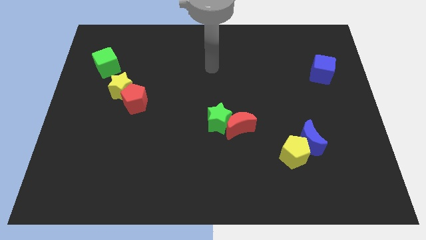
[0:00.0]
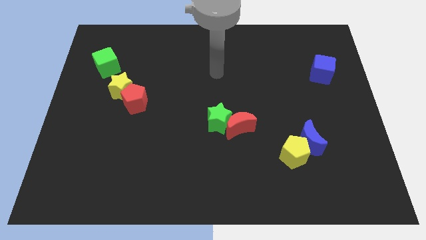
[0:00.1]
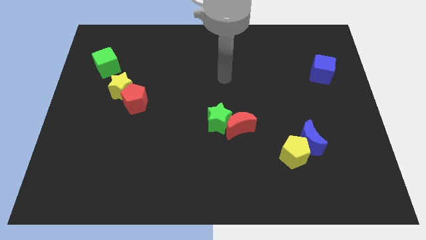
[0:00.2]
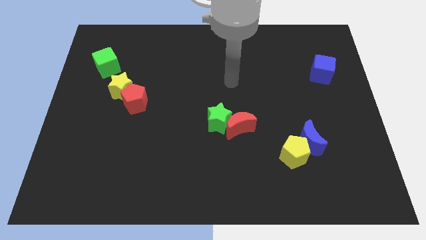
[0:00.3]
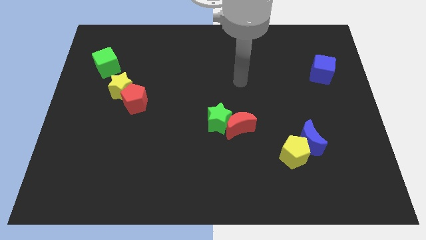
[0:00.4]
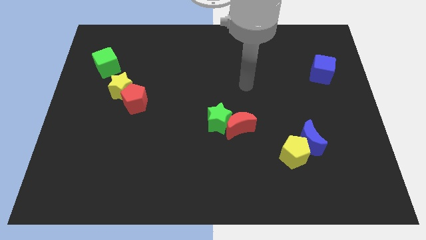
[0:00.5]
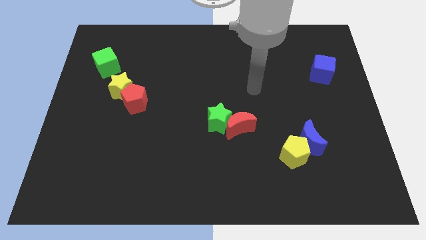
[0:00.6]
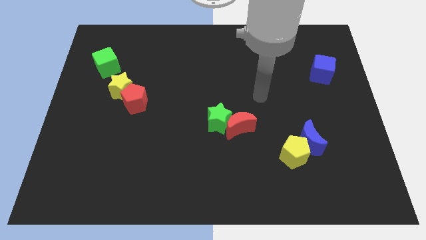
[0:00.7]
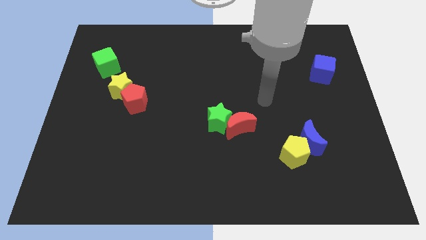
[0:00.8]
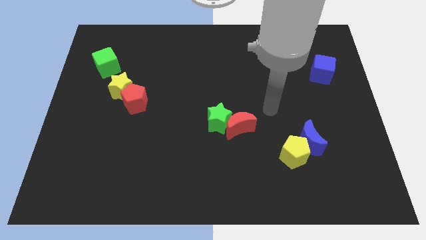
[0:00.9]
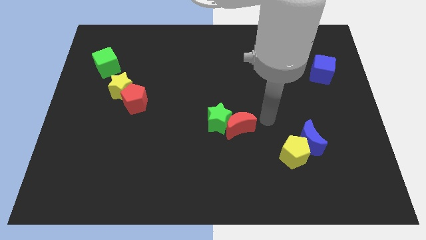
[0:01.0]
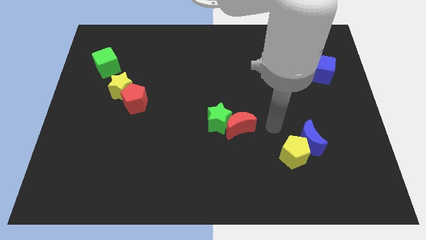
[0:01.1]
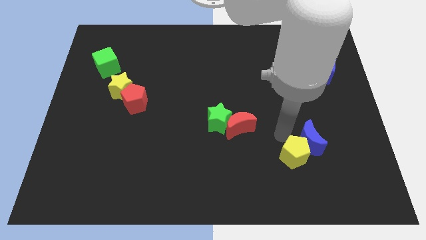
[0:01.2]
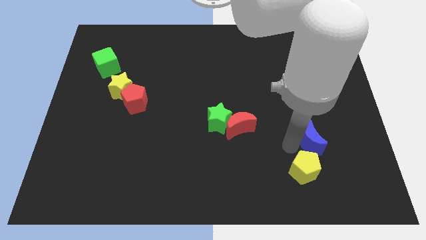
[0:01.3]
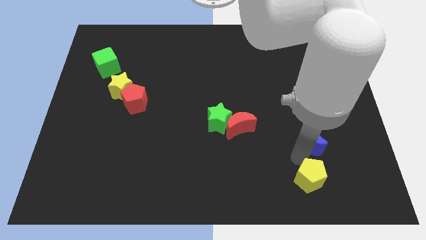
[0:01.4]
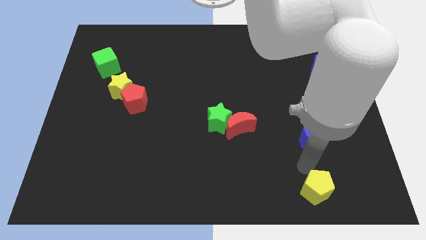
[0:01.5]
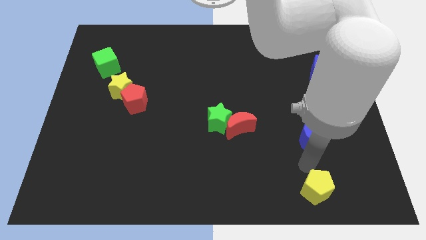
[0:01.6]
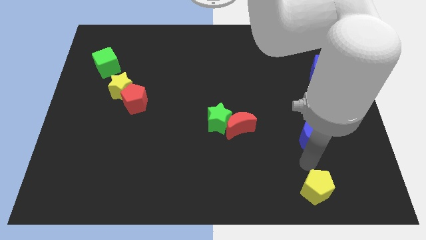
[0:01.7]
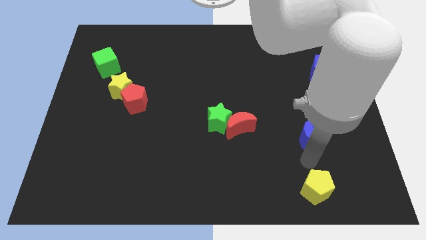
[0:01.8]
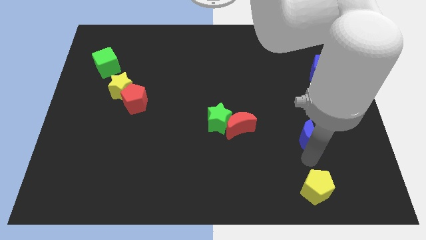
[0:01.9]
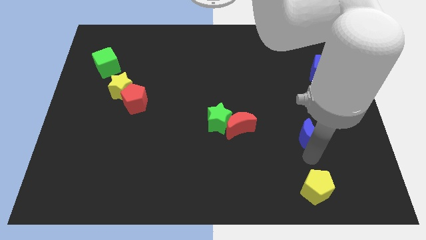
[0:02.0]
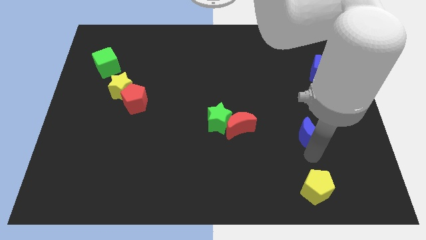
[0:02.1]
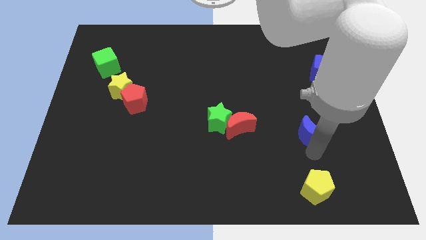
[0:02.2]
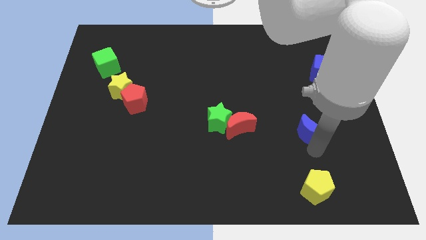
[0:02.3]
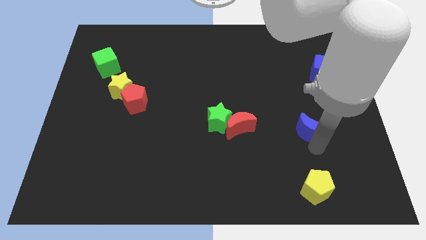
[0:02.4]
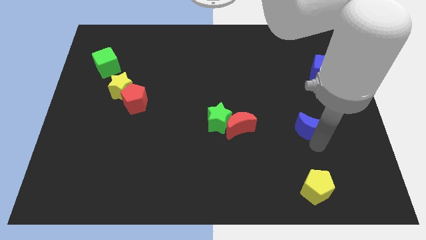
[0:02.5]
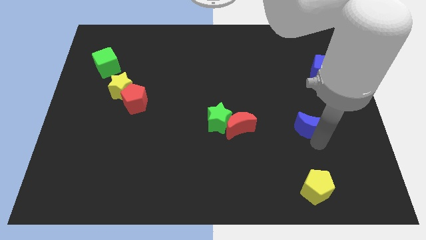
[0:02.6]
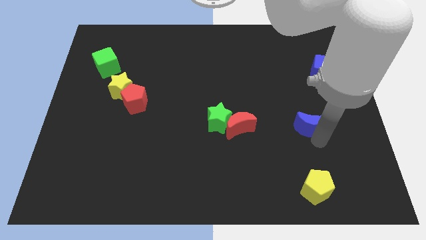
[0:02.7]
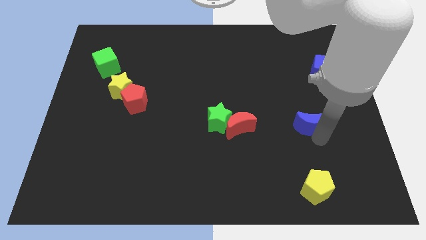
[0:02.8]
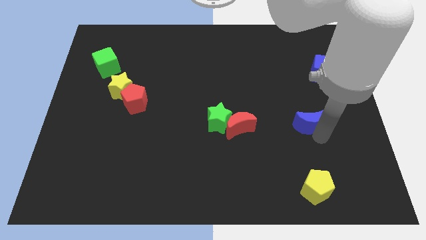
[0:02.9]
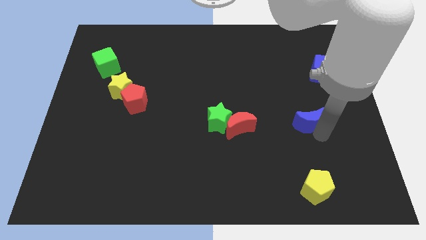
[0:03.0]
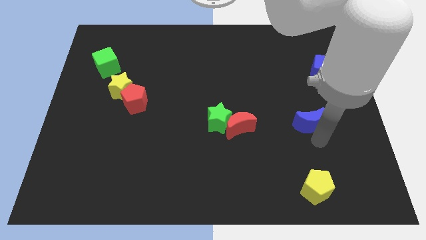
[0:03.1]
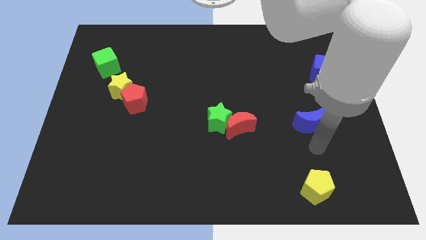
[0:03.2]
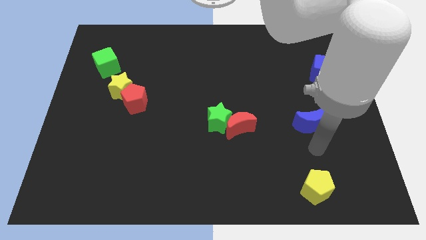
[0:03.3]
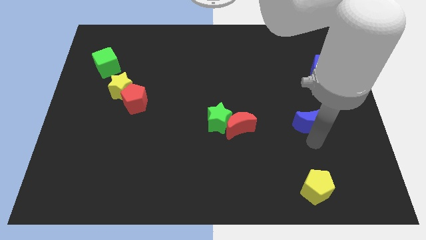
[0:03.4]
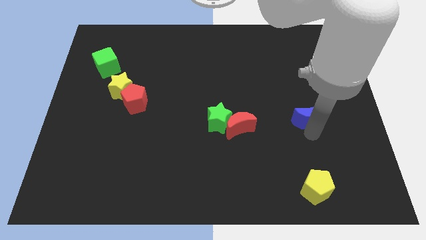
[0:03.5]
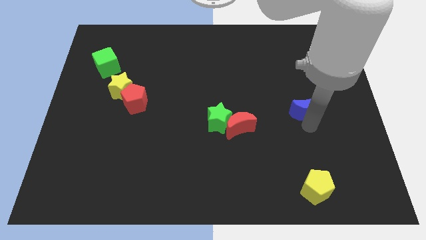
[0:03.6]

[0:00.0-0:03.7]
push the blue moon a bit up

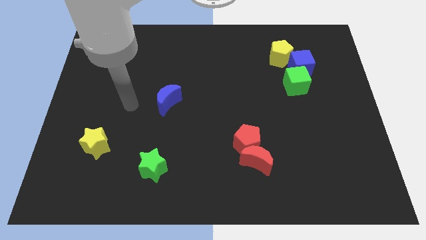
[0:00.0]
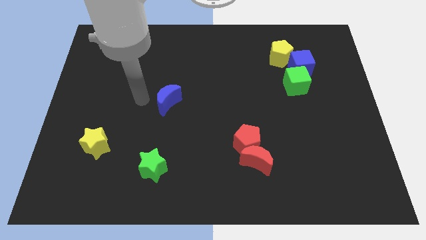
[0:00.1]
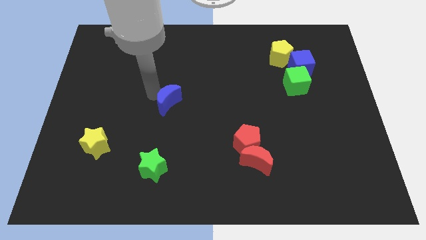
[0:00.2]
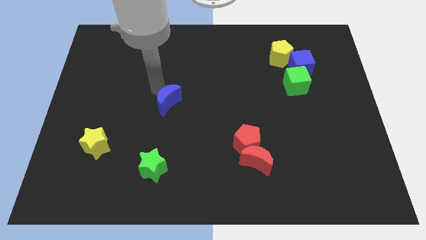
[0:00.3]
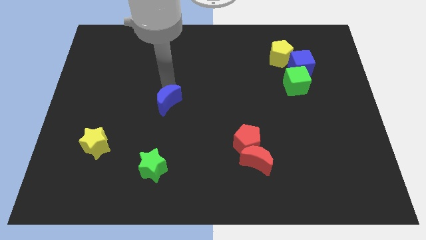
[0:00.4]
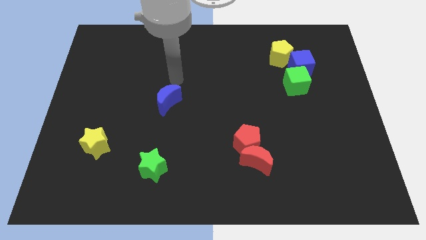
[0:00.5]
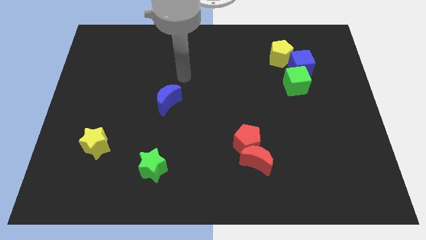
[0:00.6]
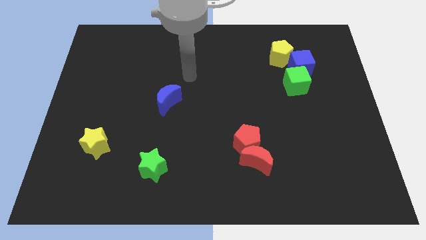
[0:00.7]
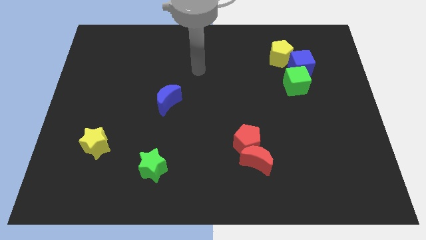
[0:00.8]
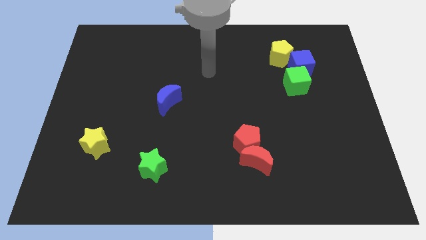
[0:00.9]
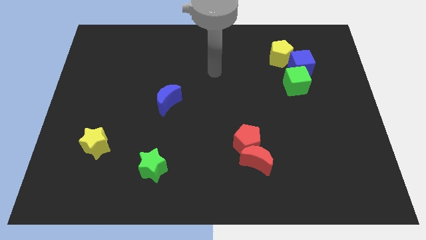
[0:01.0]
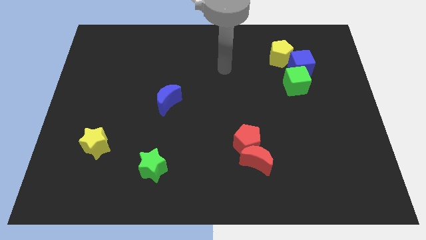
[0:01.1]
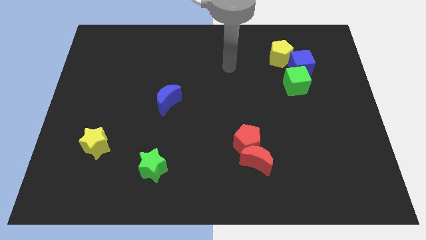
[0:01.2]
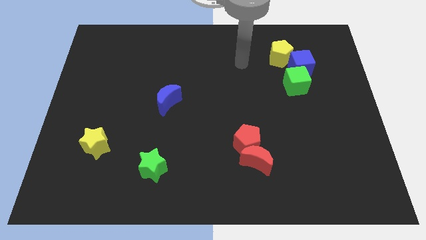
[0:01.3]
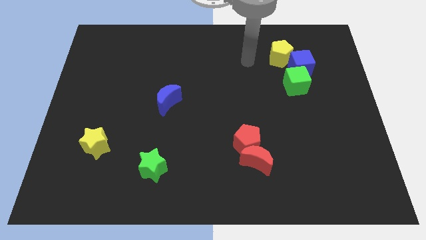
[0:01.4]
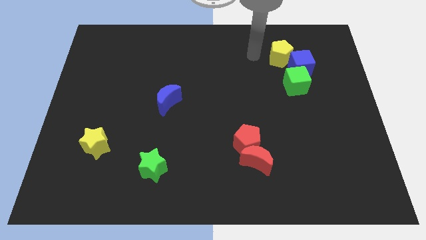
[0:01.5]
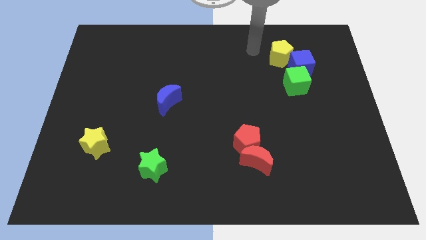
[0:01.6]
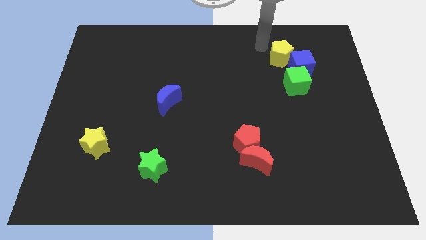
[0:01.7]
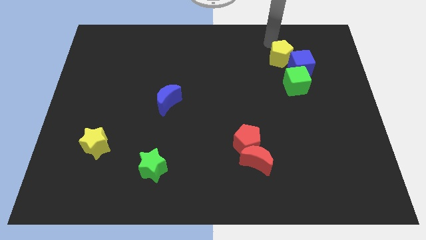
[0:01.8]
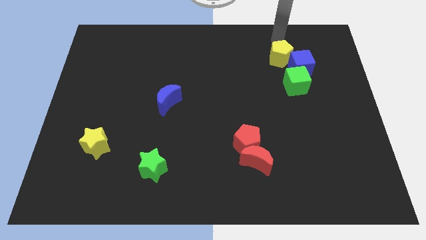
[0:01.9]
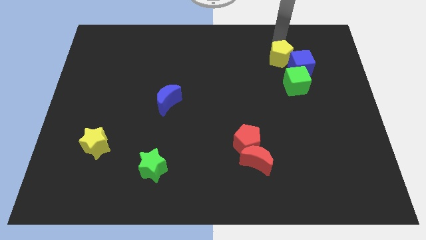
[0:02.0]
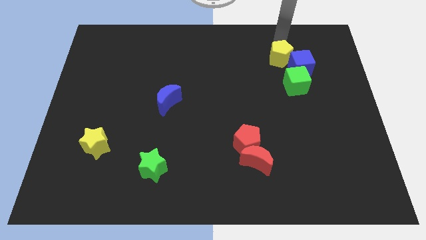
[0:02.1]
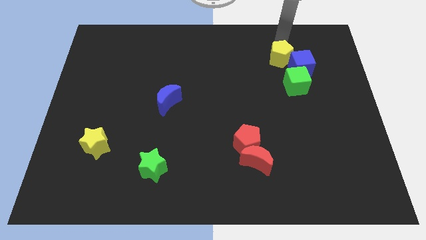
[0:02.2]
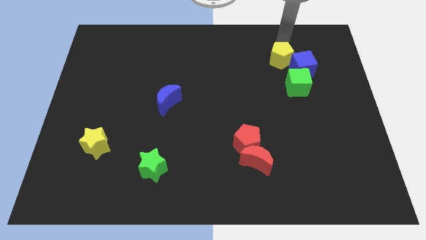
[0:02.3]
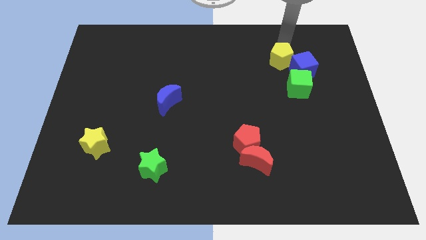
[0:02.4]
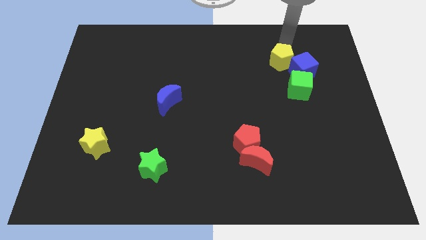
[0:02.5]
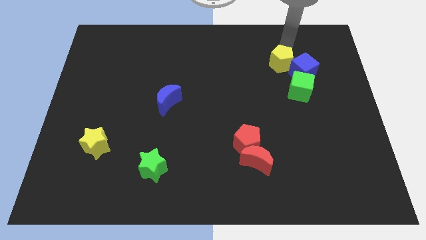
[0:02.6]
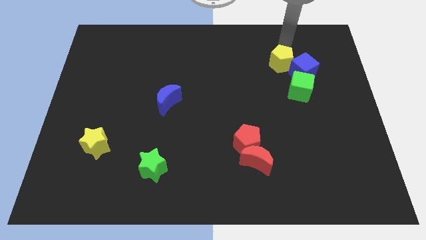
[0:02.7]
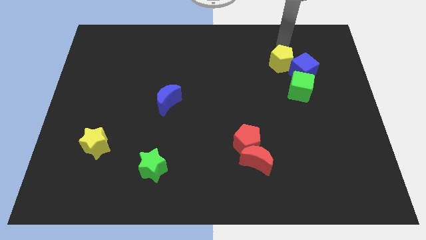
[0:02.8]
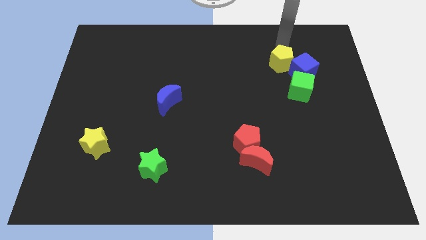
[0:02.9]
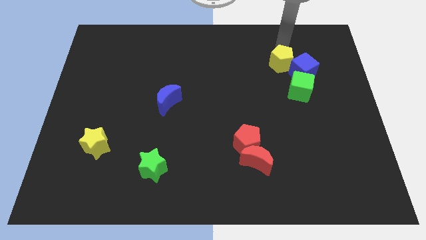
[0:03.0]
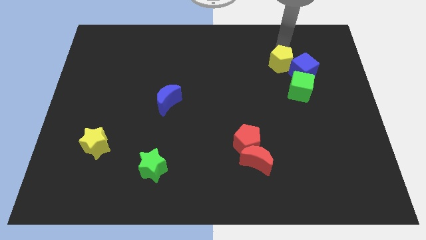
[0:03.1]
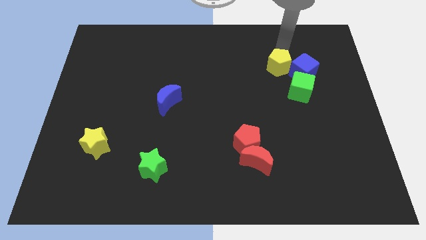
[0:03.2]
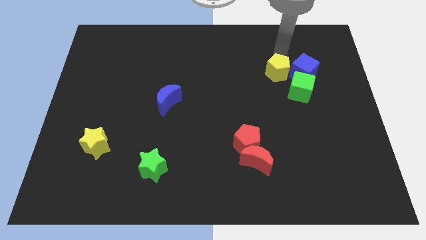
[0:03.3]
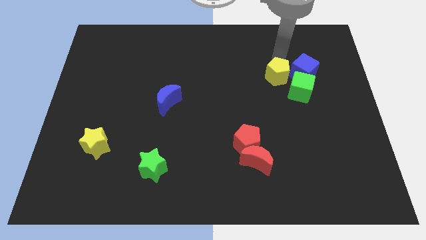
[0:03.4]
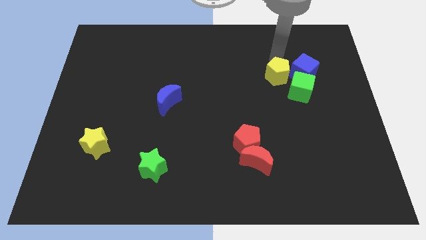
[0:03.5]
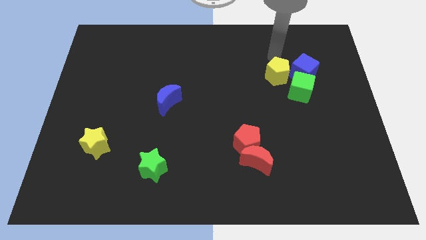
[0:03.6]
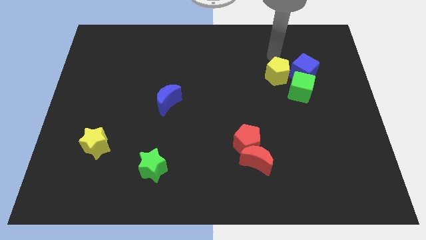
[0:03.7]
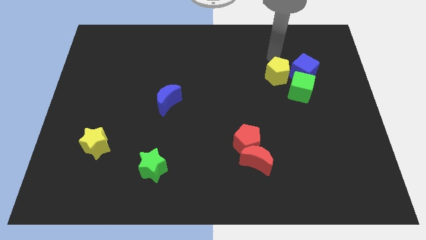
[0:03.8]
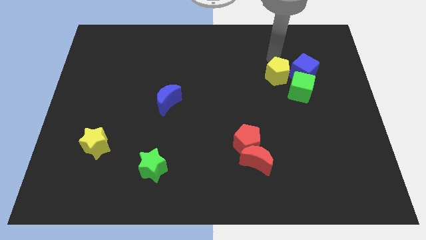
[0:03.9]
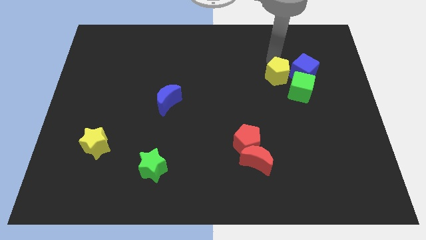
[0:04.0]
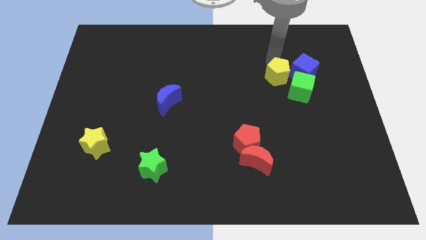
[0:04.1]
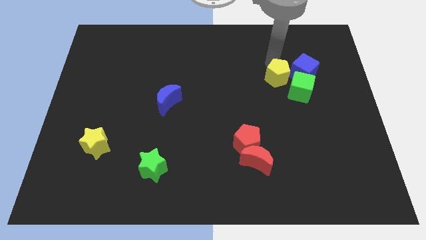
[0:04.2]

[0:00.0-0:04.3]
push the yellow pentagon downwards a bit
